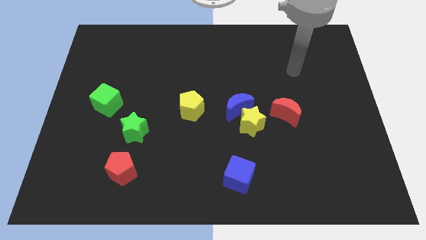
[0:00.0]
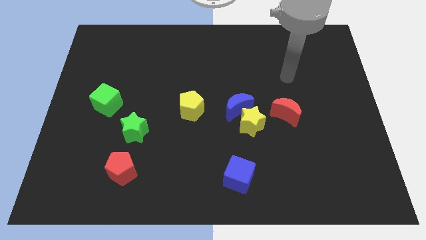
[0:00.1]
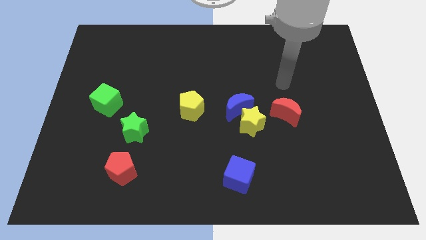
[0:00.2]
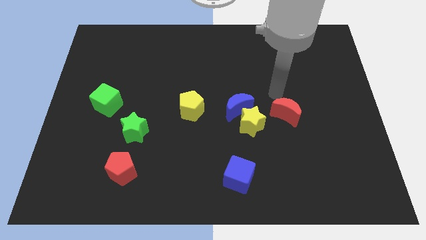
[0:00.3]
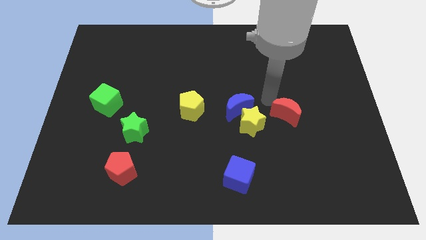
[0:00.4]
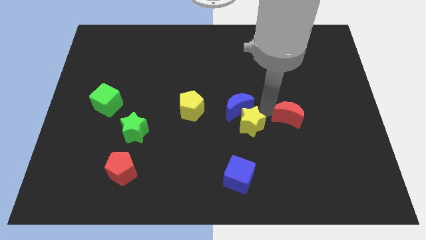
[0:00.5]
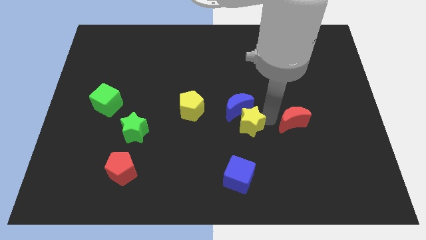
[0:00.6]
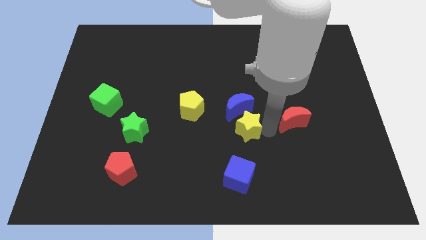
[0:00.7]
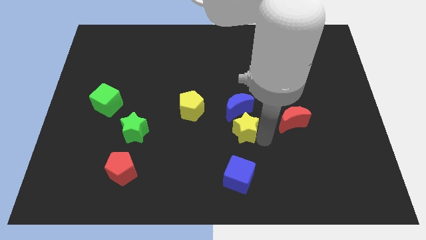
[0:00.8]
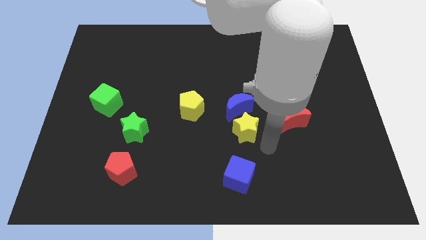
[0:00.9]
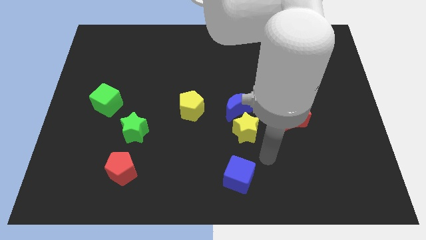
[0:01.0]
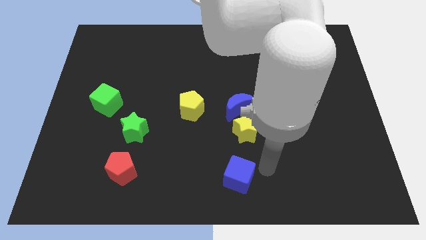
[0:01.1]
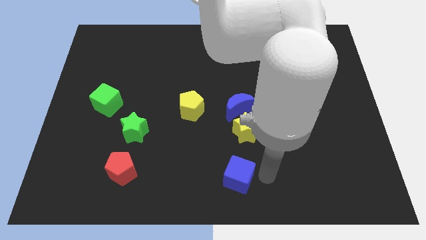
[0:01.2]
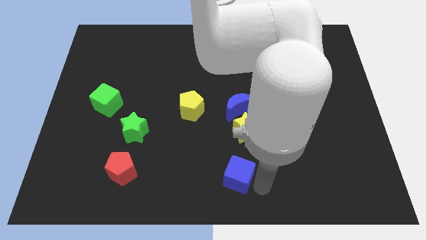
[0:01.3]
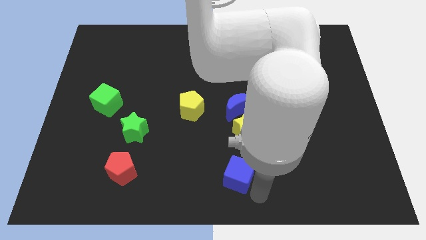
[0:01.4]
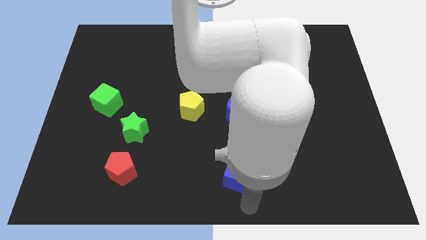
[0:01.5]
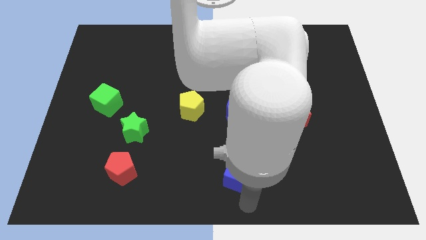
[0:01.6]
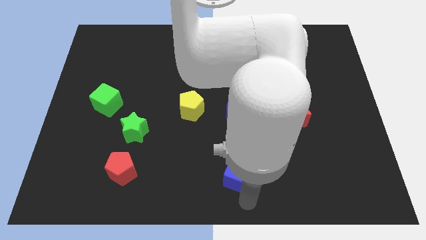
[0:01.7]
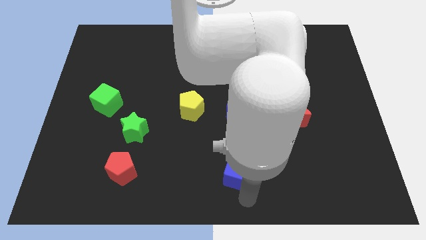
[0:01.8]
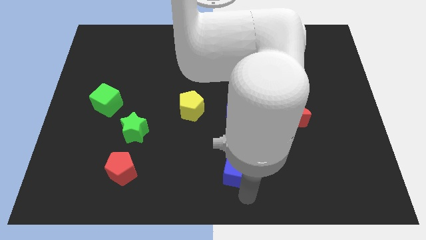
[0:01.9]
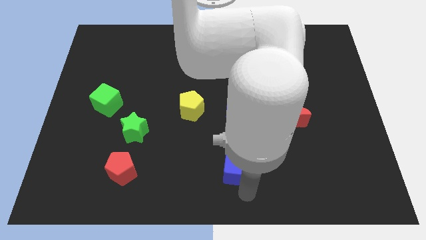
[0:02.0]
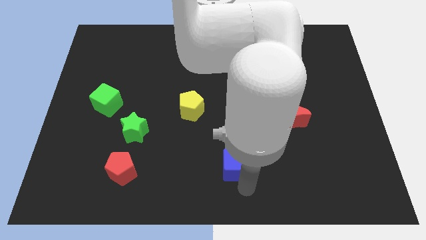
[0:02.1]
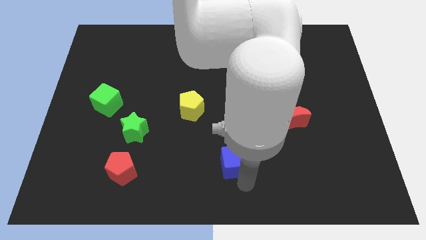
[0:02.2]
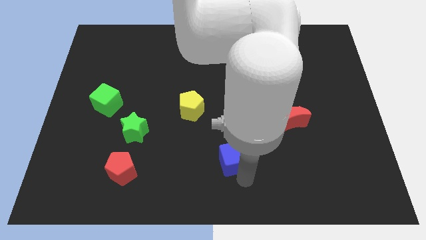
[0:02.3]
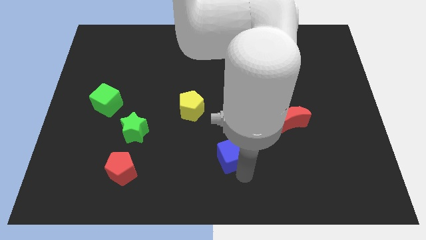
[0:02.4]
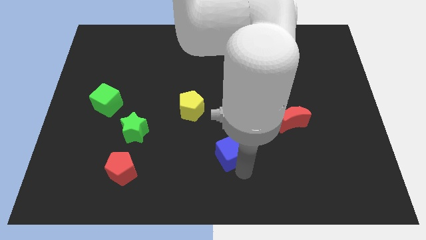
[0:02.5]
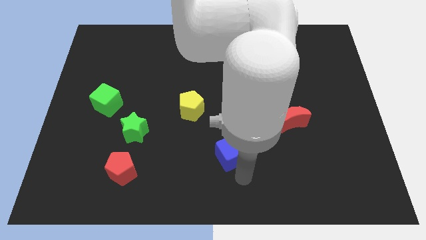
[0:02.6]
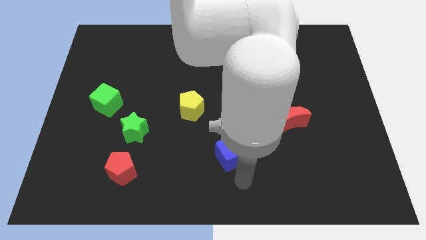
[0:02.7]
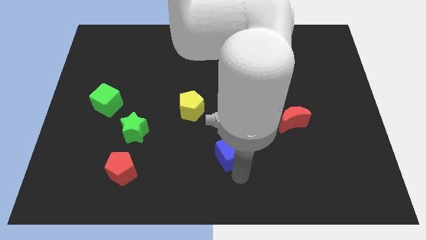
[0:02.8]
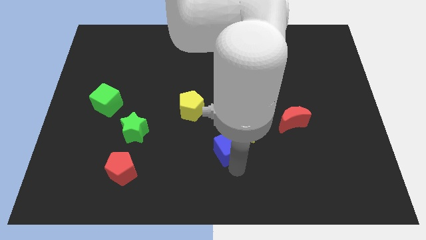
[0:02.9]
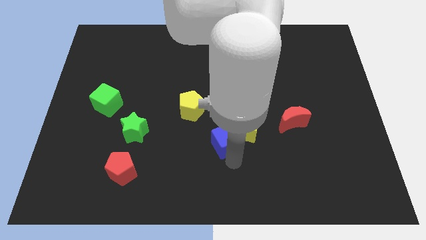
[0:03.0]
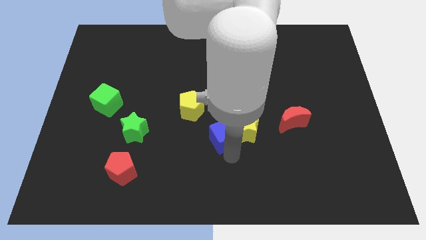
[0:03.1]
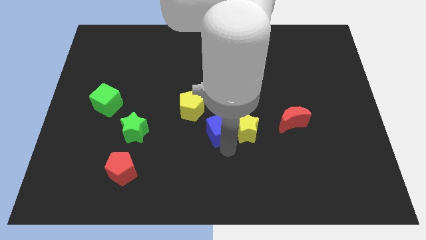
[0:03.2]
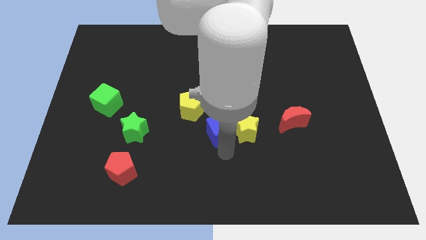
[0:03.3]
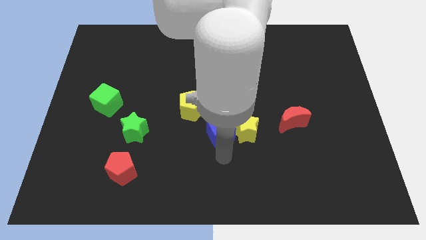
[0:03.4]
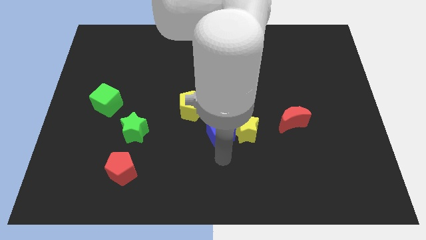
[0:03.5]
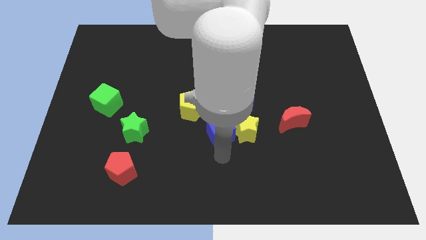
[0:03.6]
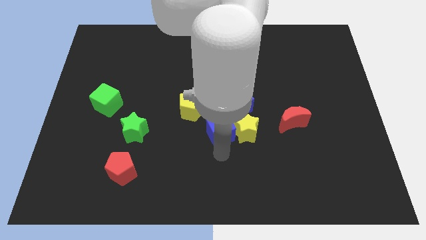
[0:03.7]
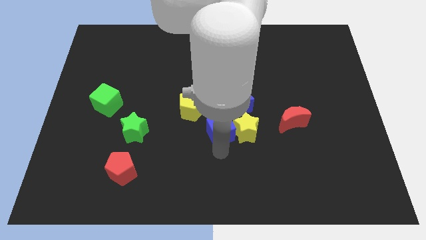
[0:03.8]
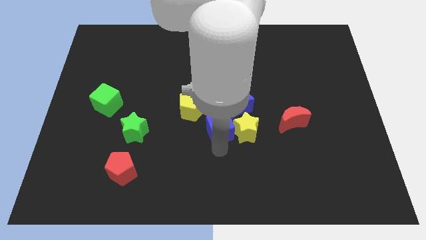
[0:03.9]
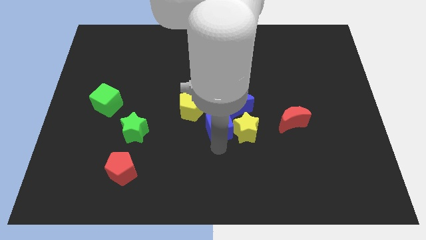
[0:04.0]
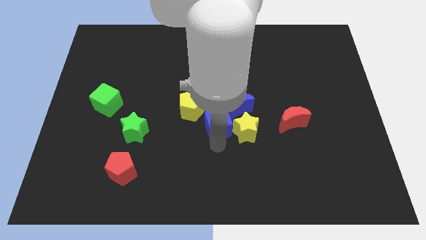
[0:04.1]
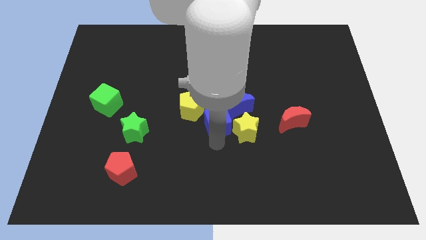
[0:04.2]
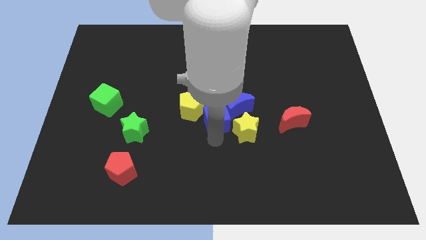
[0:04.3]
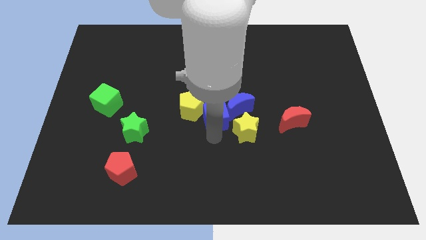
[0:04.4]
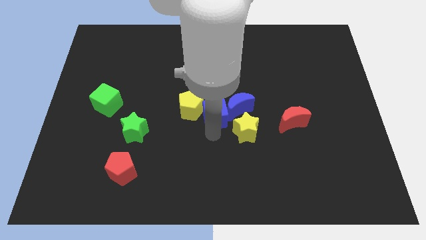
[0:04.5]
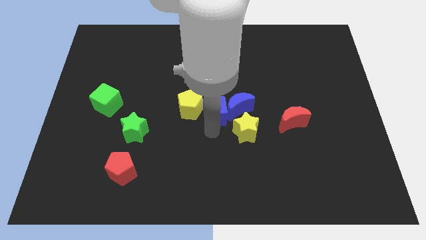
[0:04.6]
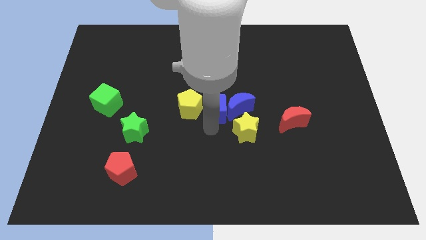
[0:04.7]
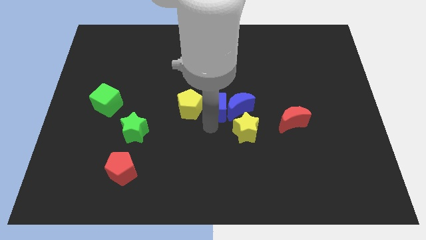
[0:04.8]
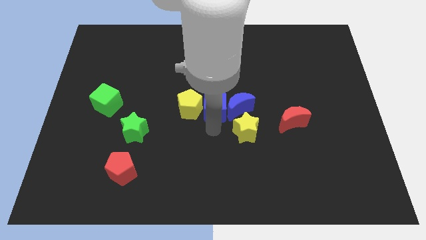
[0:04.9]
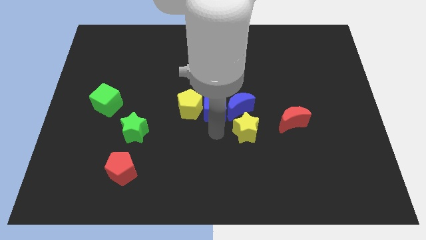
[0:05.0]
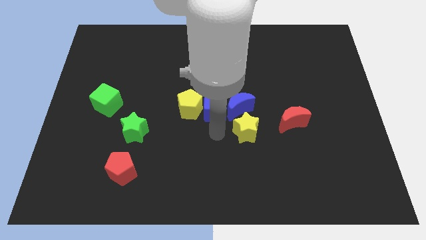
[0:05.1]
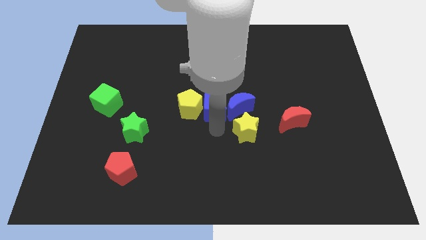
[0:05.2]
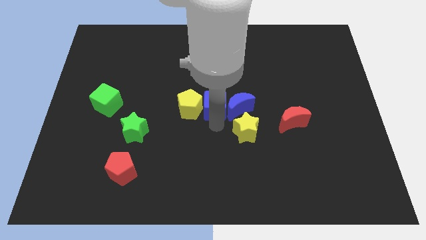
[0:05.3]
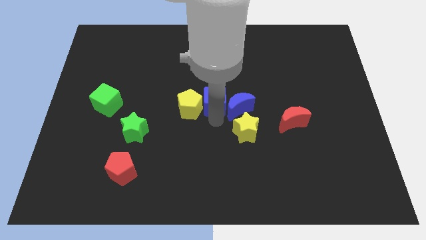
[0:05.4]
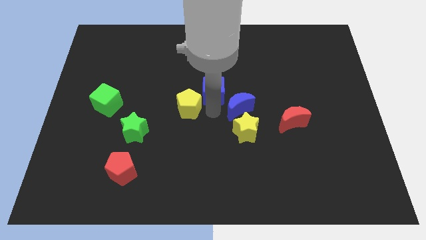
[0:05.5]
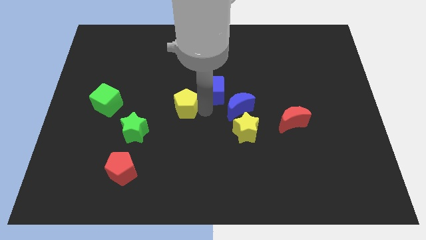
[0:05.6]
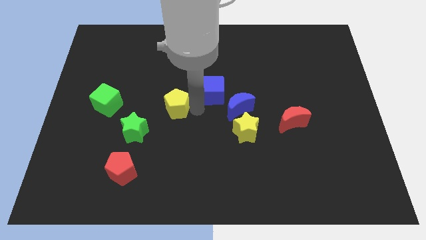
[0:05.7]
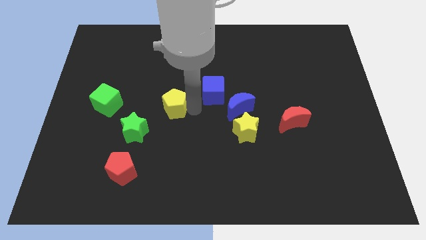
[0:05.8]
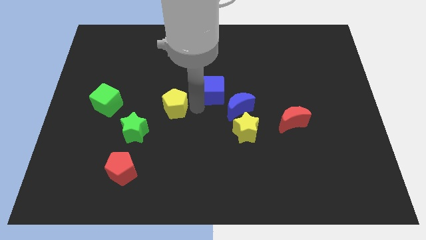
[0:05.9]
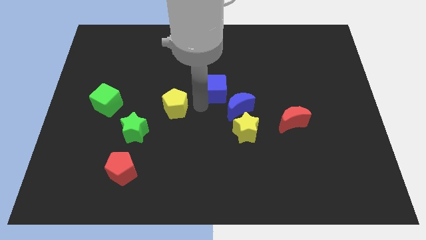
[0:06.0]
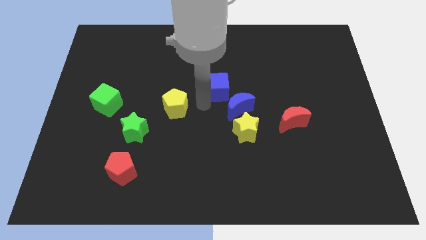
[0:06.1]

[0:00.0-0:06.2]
push the blue cube to the top of the blue moon

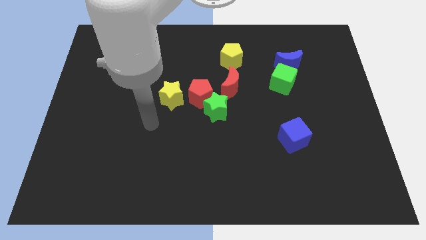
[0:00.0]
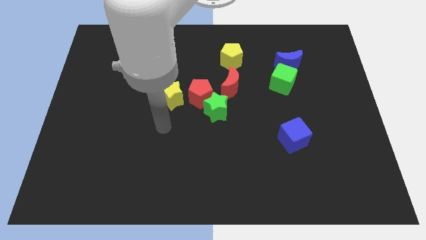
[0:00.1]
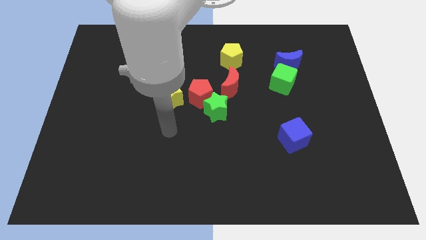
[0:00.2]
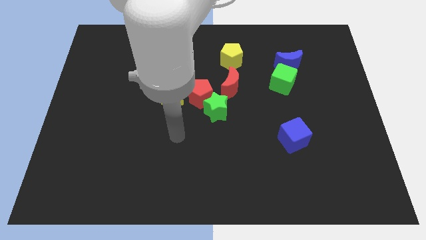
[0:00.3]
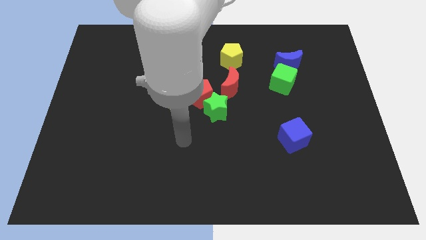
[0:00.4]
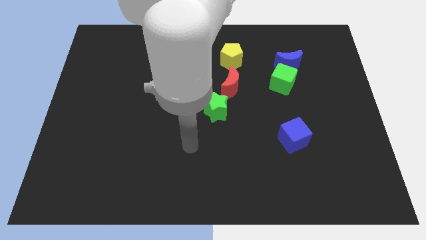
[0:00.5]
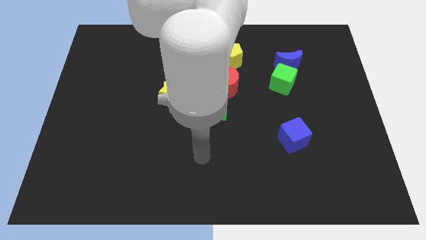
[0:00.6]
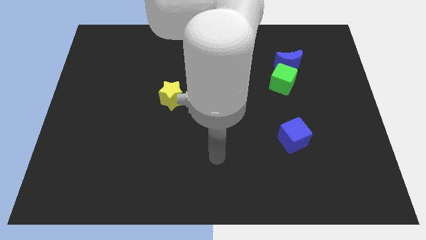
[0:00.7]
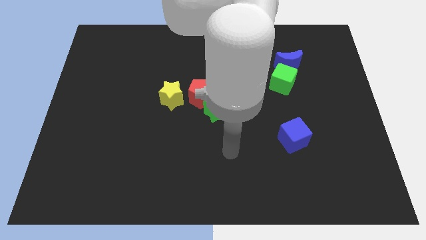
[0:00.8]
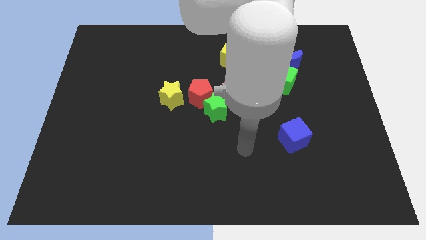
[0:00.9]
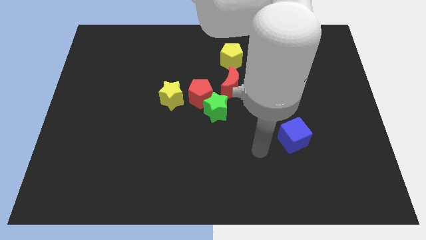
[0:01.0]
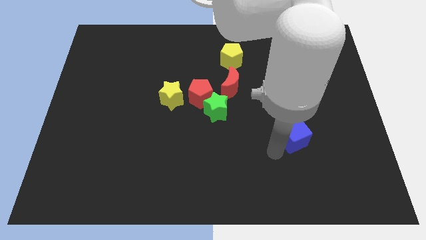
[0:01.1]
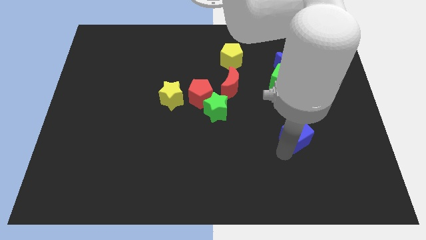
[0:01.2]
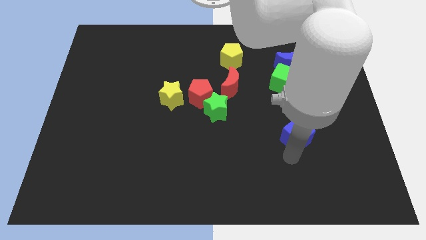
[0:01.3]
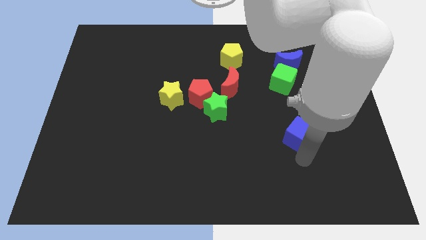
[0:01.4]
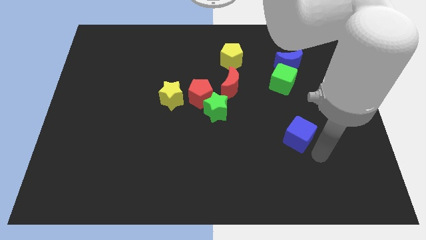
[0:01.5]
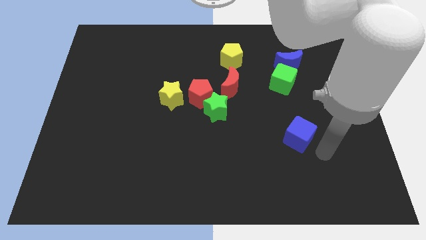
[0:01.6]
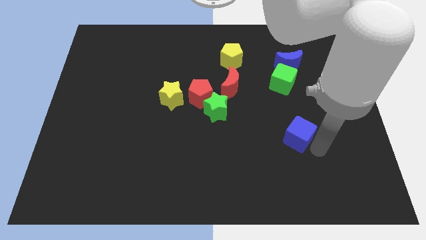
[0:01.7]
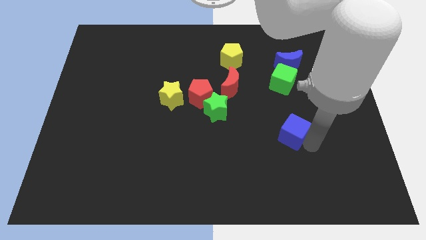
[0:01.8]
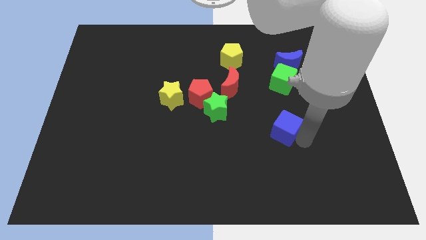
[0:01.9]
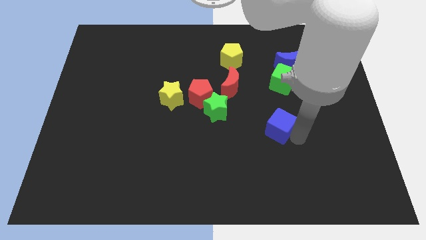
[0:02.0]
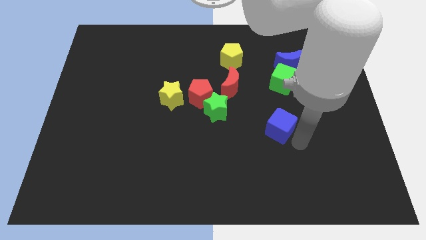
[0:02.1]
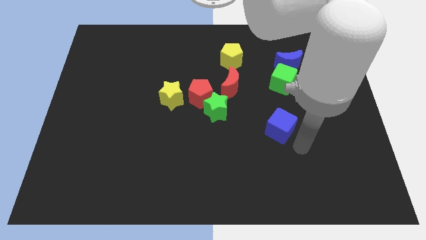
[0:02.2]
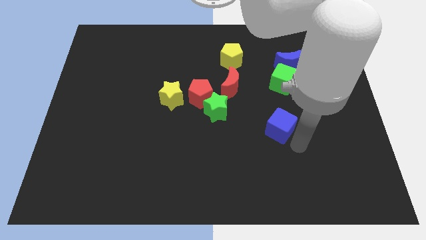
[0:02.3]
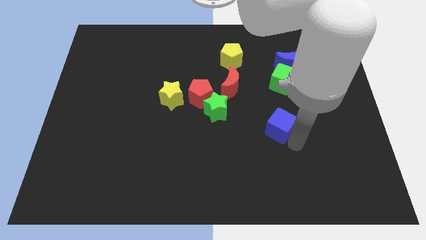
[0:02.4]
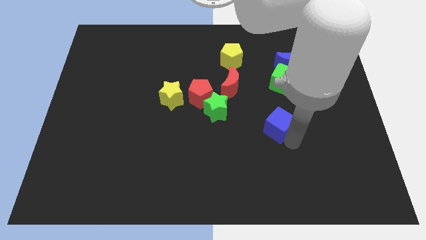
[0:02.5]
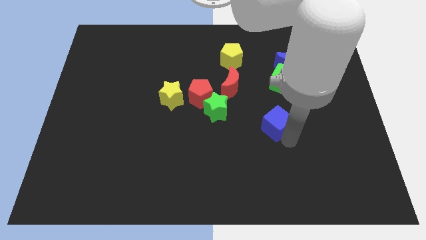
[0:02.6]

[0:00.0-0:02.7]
push the blue cube right of the green star
